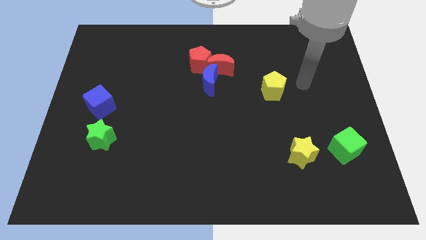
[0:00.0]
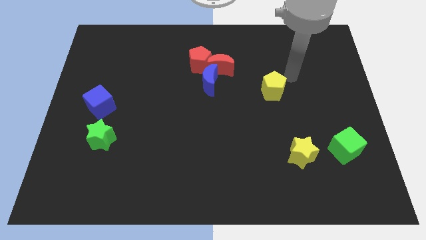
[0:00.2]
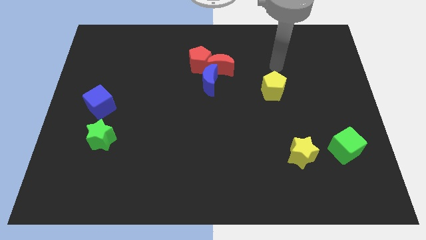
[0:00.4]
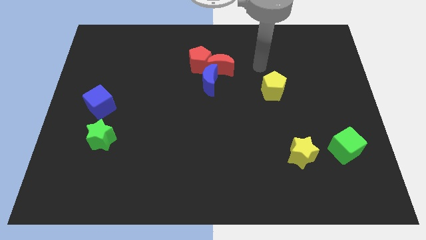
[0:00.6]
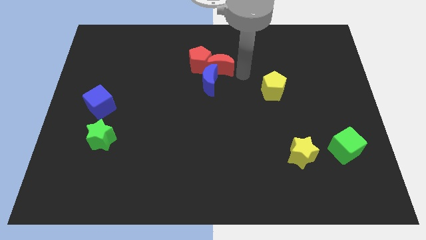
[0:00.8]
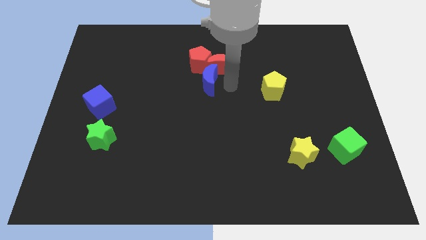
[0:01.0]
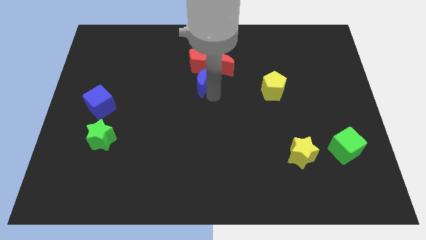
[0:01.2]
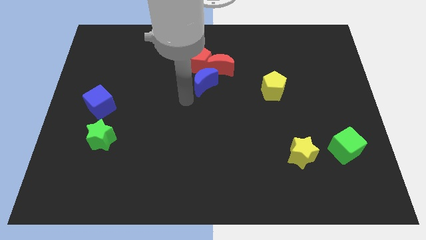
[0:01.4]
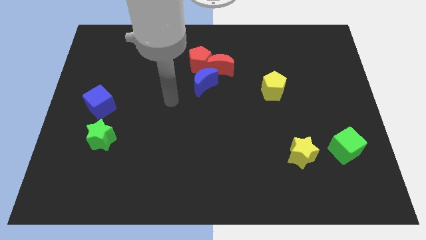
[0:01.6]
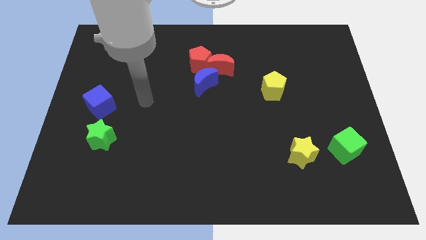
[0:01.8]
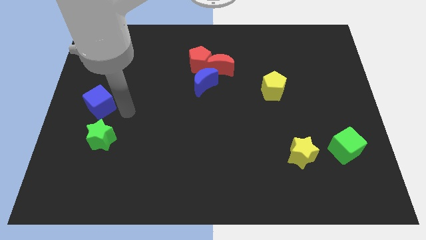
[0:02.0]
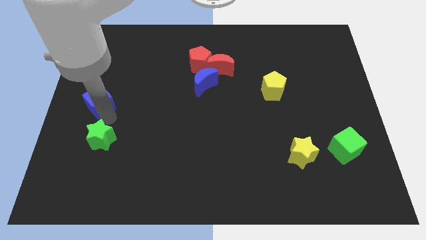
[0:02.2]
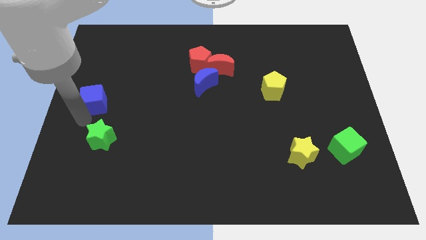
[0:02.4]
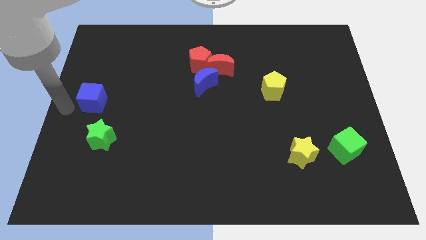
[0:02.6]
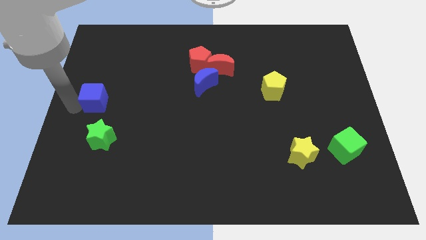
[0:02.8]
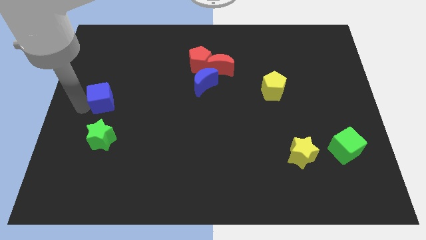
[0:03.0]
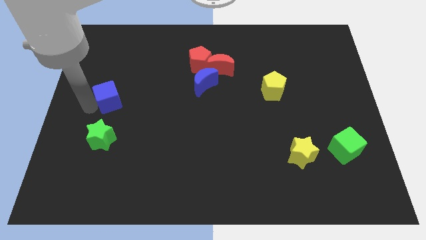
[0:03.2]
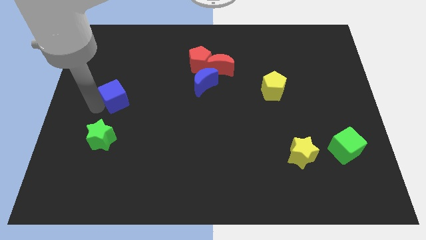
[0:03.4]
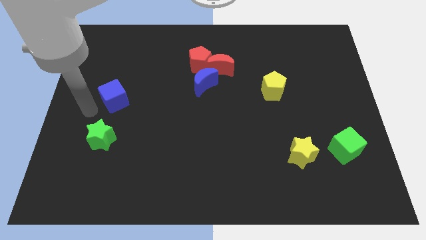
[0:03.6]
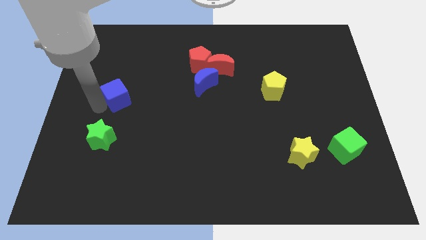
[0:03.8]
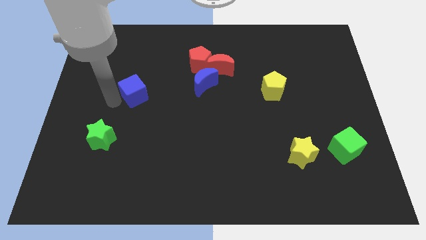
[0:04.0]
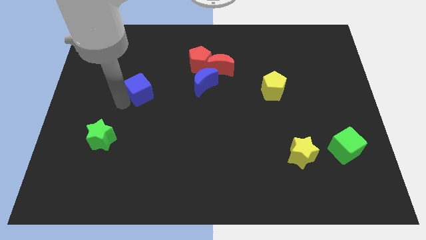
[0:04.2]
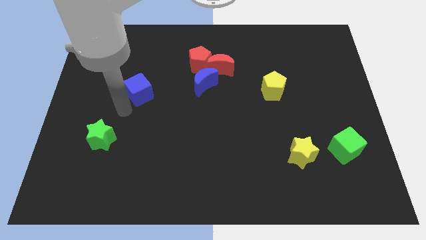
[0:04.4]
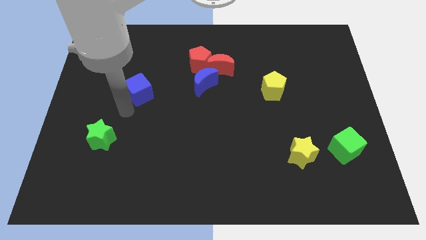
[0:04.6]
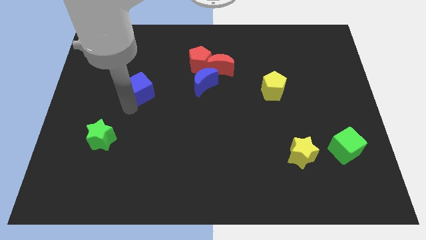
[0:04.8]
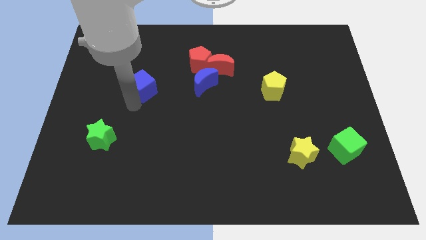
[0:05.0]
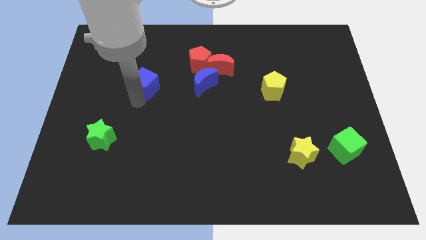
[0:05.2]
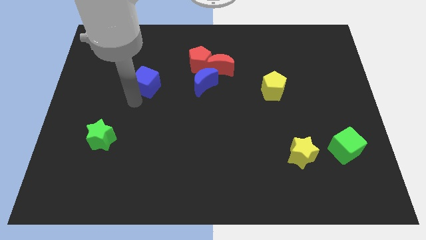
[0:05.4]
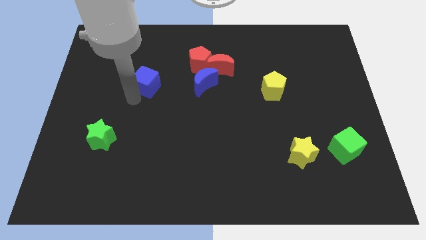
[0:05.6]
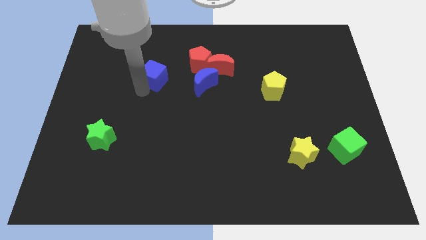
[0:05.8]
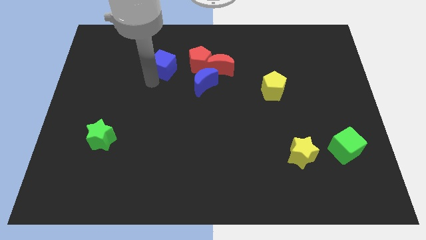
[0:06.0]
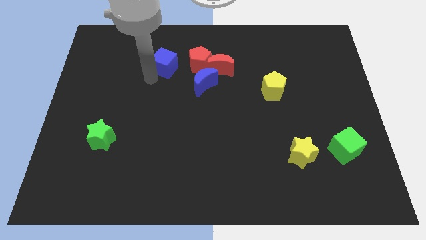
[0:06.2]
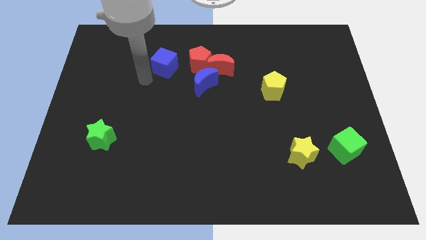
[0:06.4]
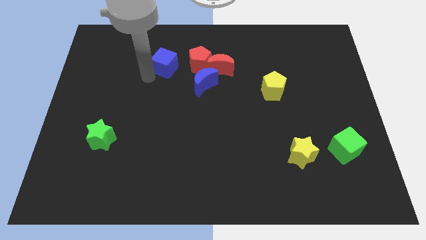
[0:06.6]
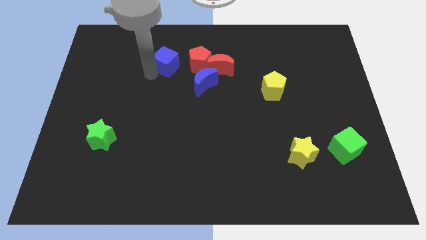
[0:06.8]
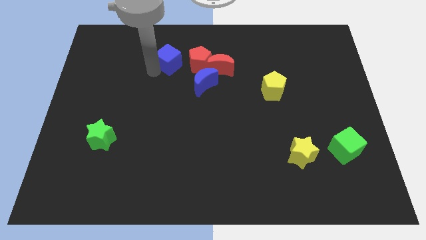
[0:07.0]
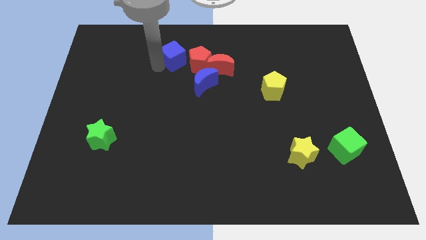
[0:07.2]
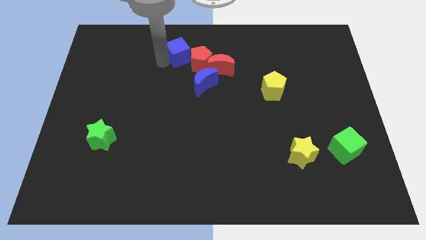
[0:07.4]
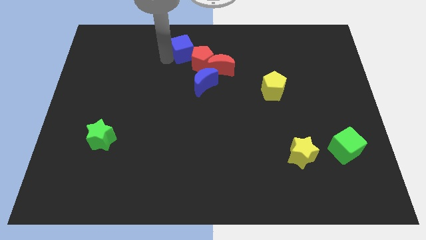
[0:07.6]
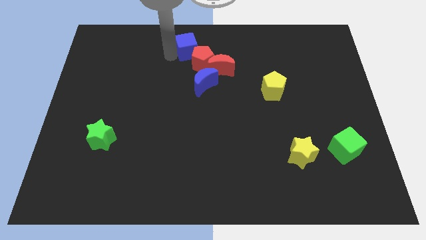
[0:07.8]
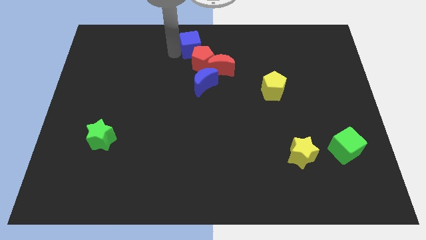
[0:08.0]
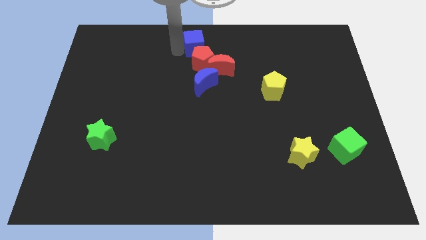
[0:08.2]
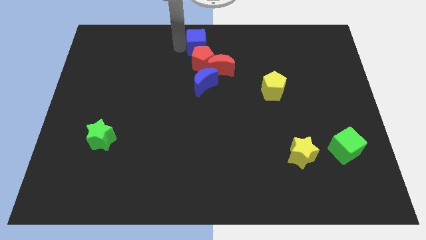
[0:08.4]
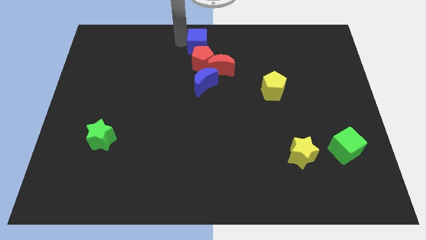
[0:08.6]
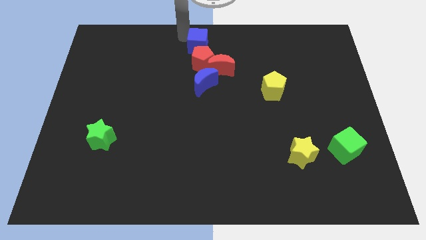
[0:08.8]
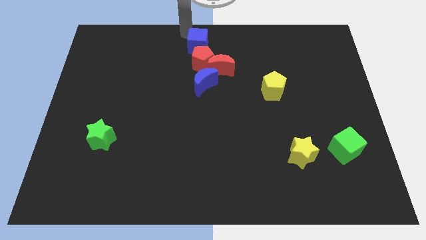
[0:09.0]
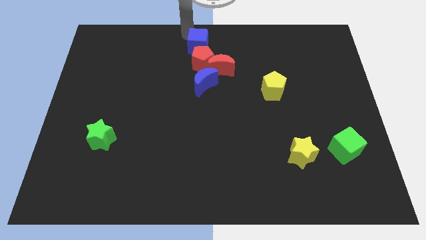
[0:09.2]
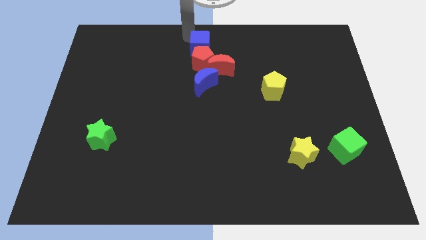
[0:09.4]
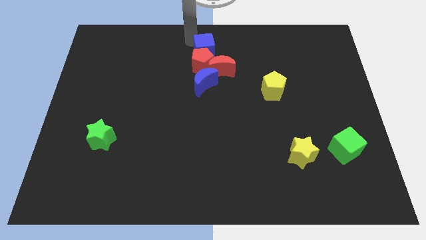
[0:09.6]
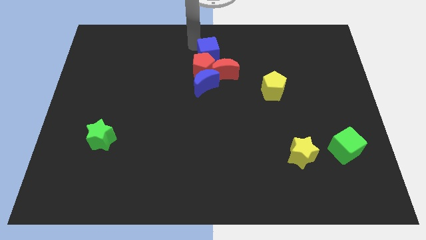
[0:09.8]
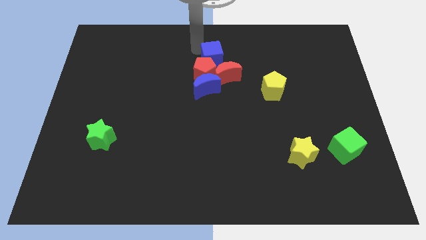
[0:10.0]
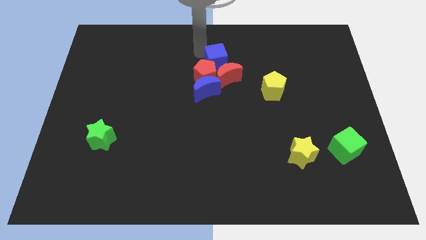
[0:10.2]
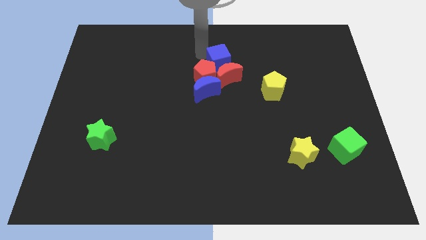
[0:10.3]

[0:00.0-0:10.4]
slide the blue cube to the red moon

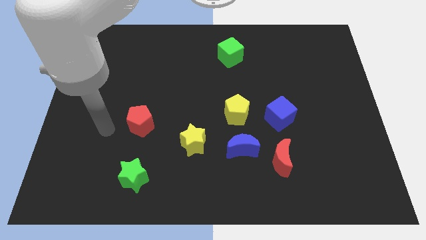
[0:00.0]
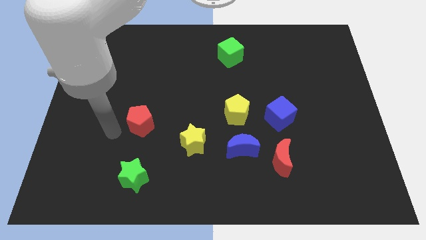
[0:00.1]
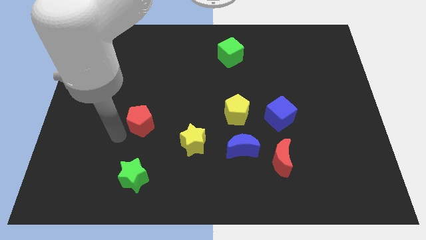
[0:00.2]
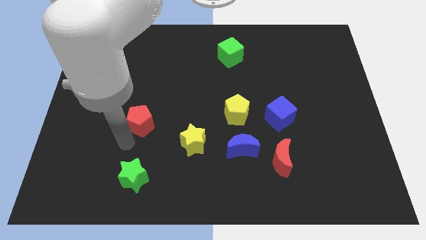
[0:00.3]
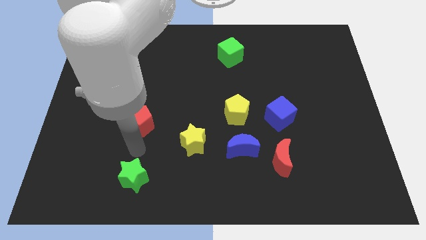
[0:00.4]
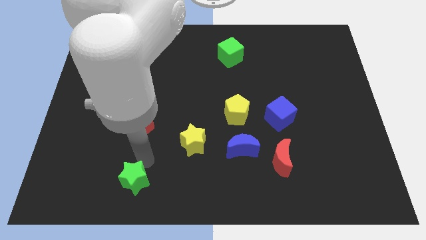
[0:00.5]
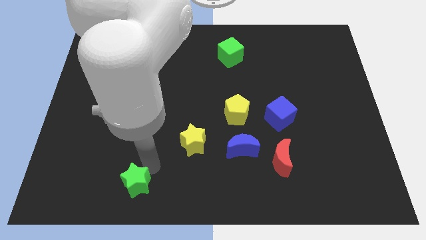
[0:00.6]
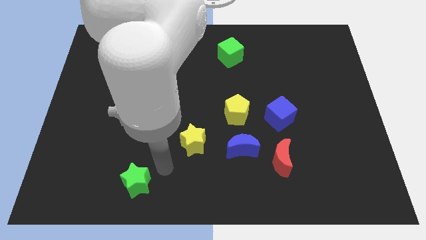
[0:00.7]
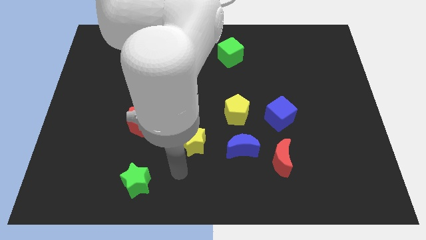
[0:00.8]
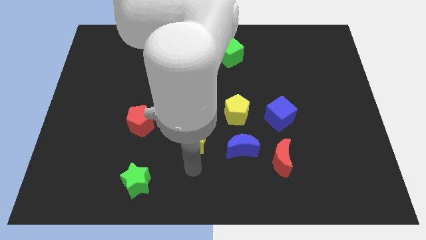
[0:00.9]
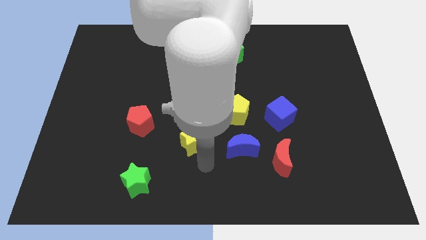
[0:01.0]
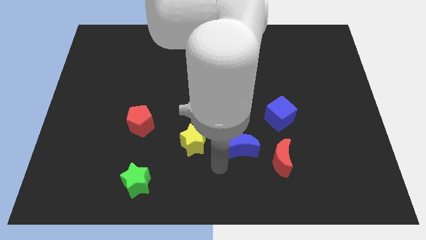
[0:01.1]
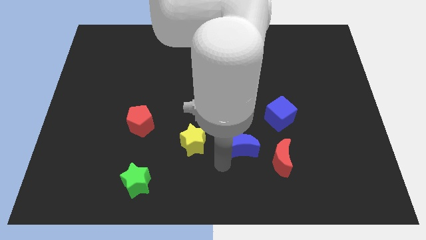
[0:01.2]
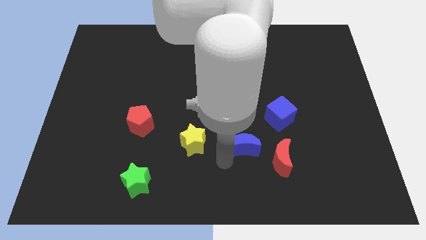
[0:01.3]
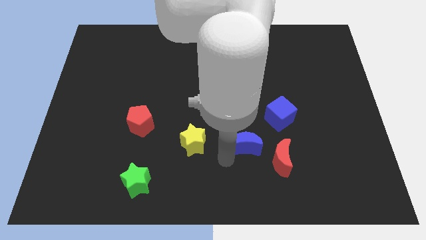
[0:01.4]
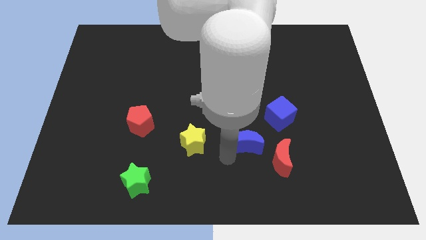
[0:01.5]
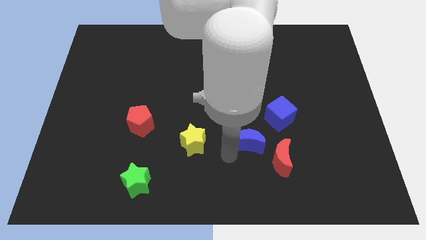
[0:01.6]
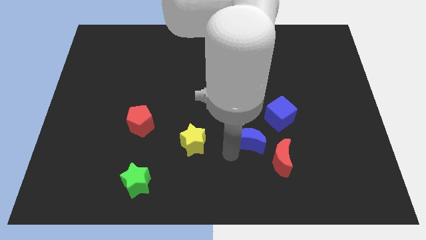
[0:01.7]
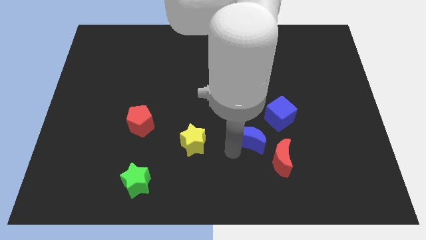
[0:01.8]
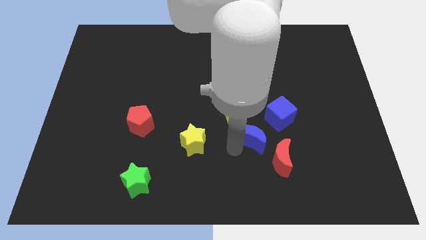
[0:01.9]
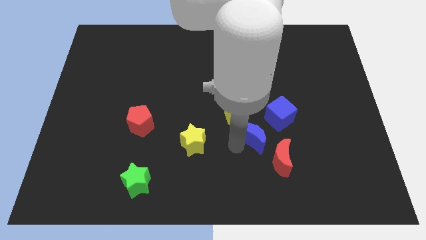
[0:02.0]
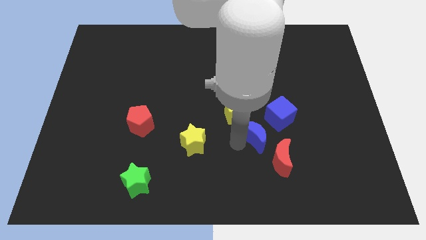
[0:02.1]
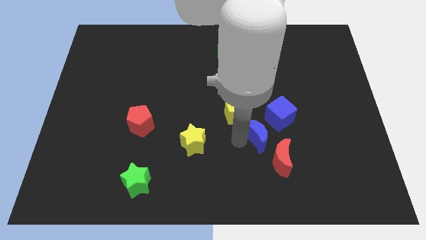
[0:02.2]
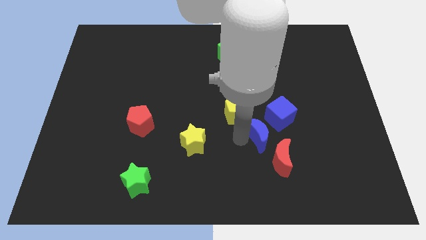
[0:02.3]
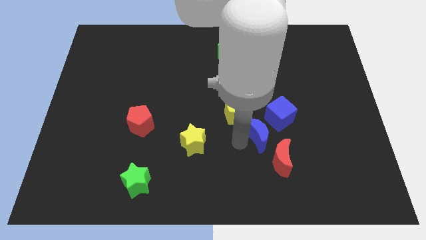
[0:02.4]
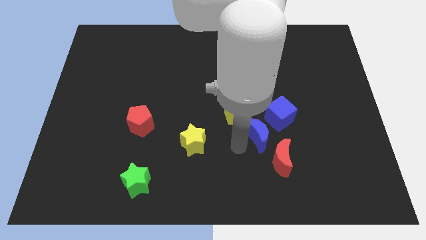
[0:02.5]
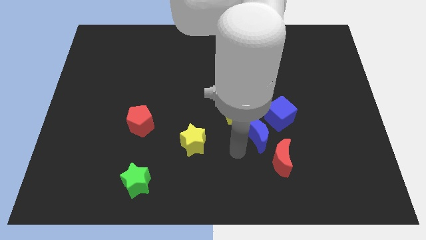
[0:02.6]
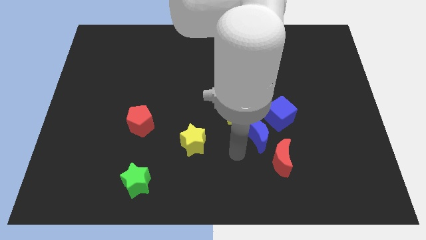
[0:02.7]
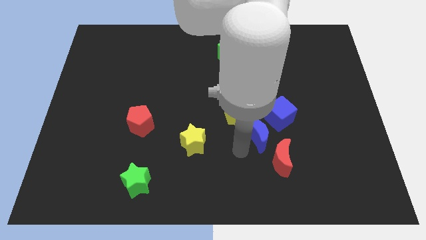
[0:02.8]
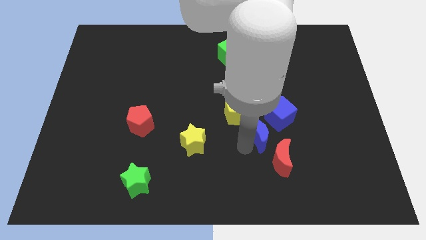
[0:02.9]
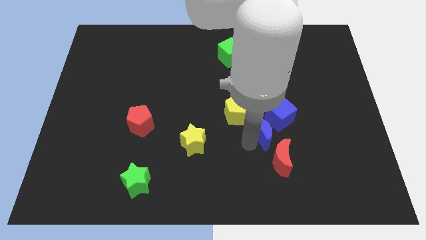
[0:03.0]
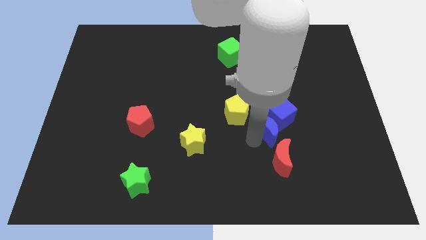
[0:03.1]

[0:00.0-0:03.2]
slide the blue moon towards the blue cube

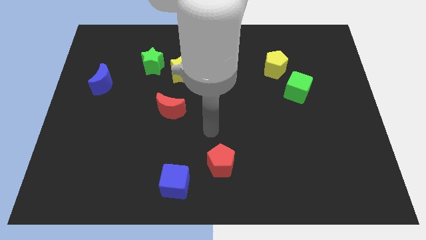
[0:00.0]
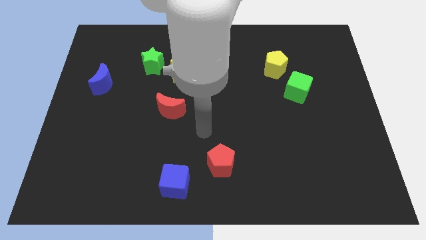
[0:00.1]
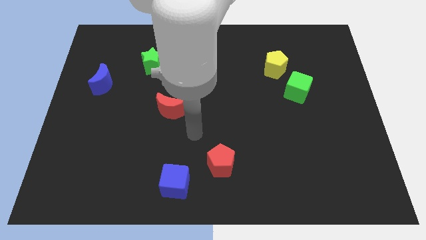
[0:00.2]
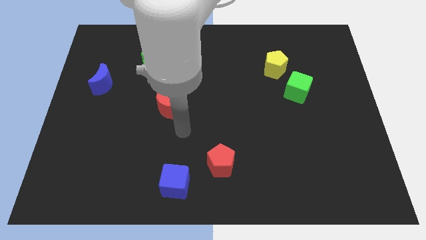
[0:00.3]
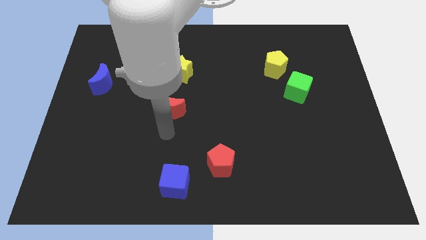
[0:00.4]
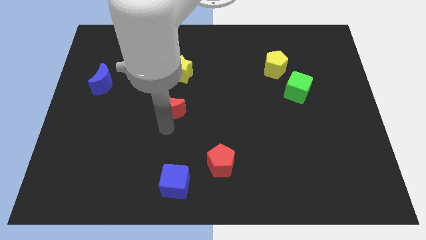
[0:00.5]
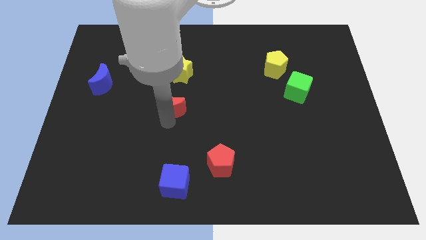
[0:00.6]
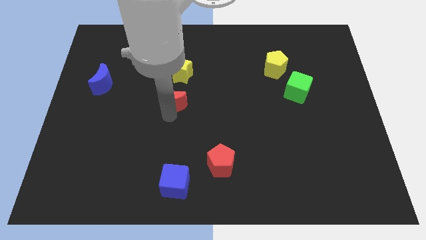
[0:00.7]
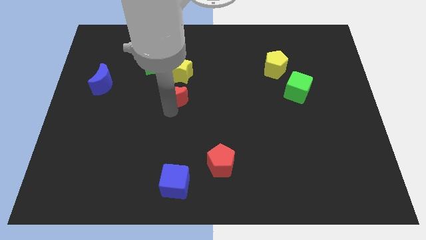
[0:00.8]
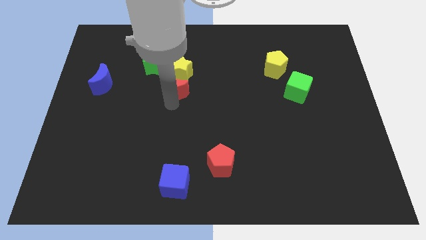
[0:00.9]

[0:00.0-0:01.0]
move the red moon towards the yellow star
